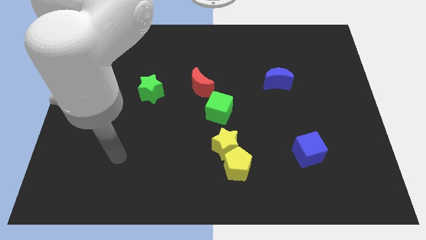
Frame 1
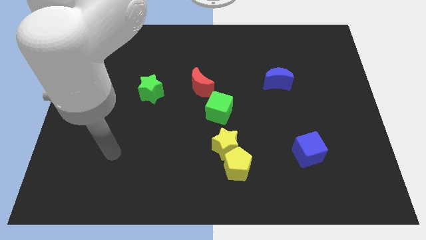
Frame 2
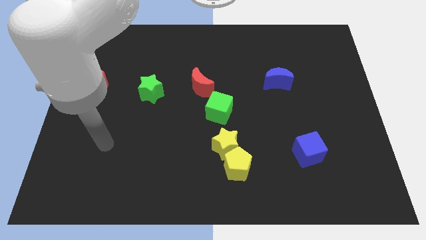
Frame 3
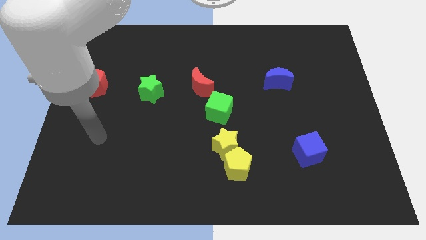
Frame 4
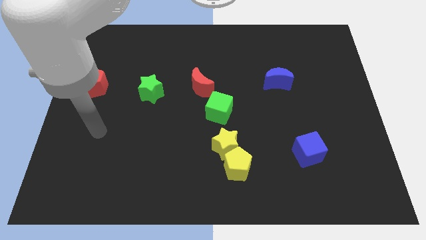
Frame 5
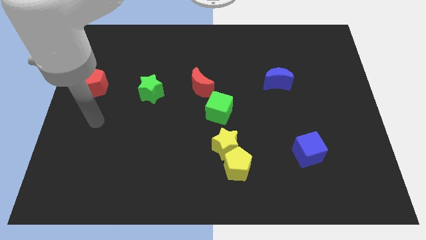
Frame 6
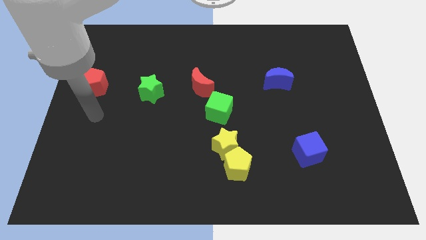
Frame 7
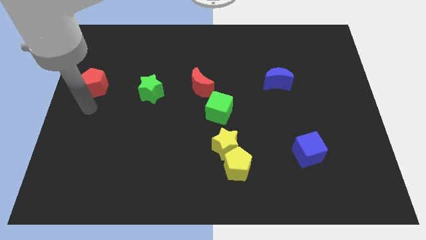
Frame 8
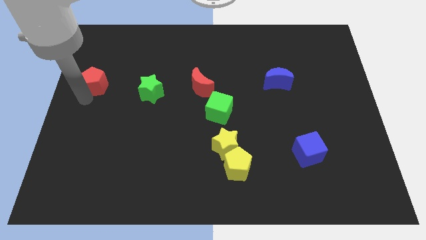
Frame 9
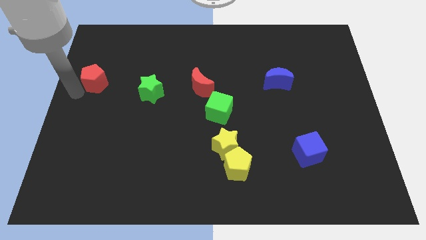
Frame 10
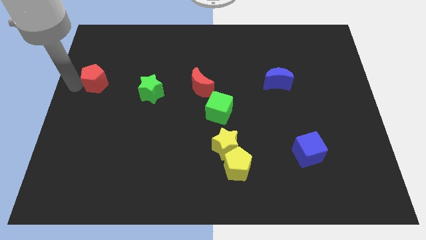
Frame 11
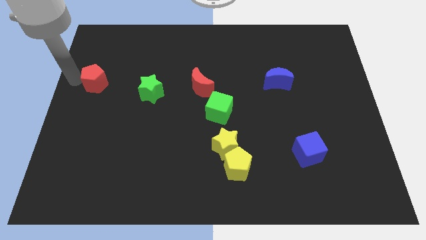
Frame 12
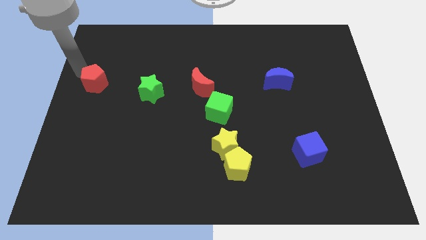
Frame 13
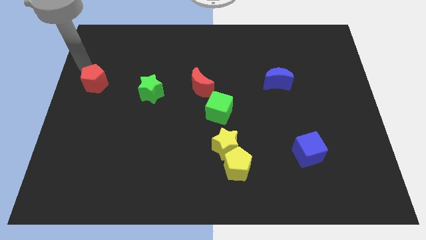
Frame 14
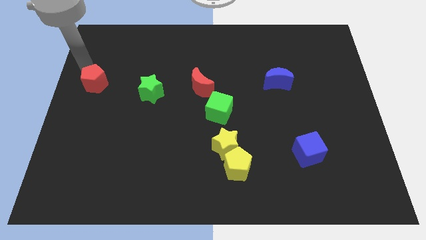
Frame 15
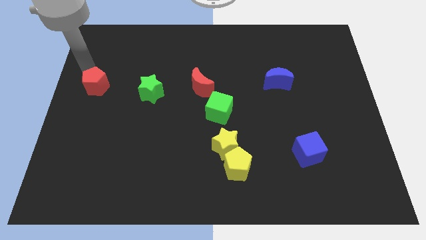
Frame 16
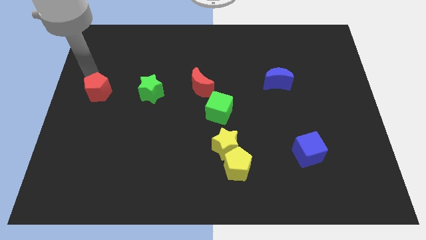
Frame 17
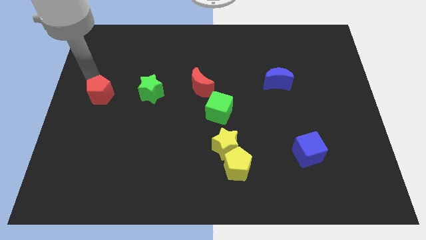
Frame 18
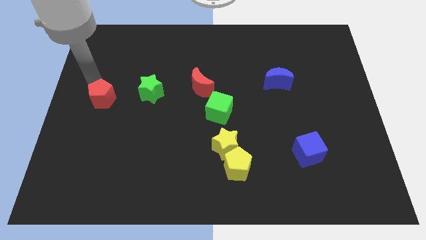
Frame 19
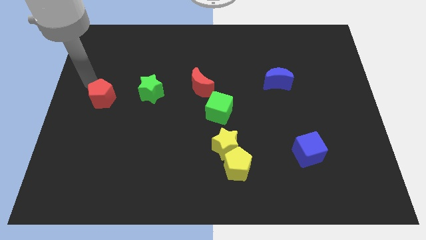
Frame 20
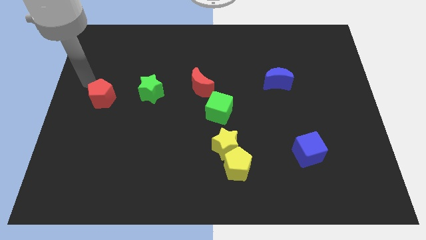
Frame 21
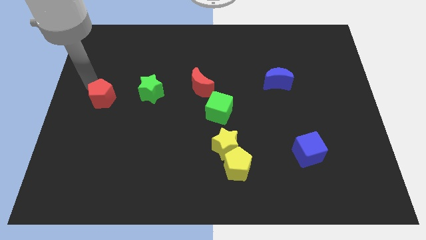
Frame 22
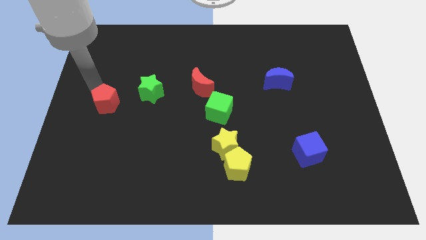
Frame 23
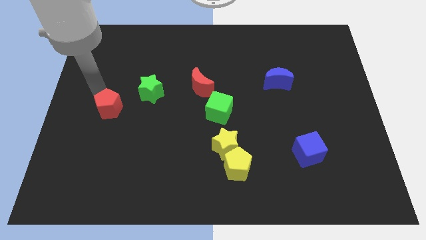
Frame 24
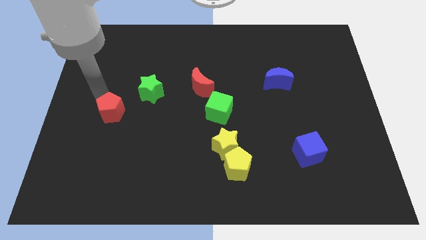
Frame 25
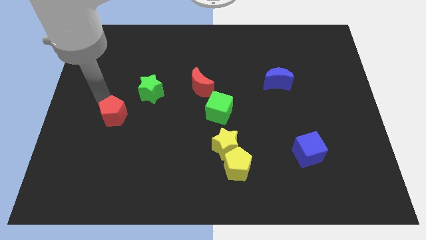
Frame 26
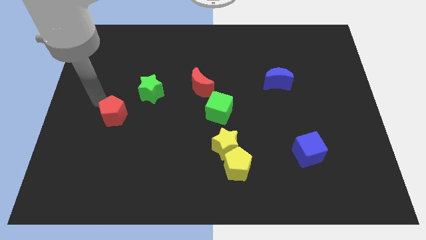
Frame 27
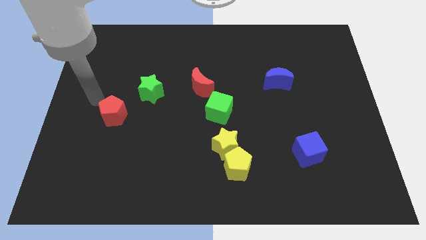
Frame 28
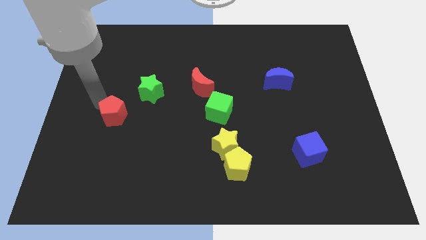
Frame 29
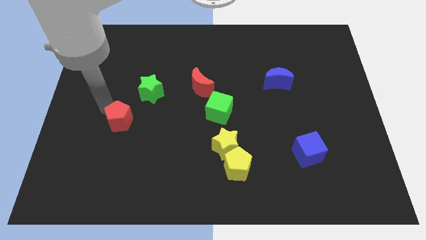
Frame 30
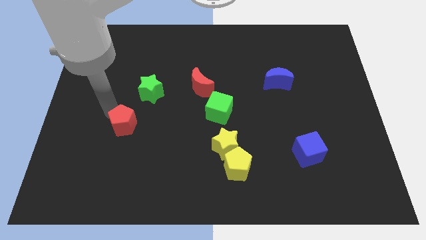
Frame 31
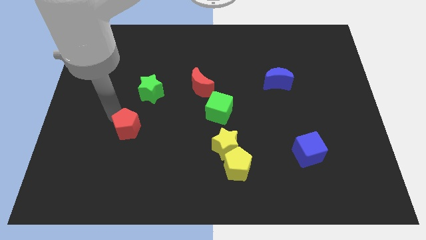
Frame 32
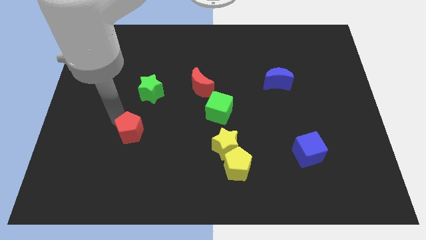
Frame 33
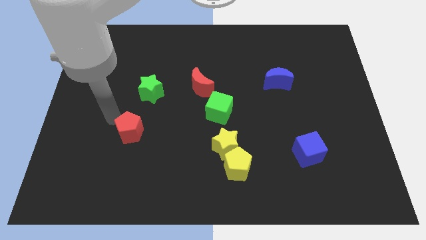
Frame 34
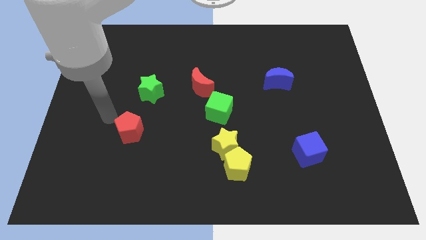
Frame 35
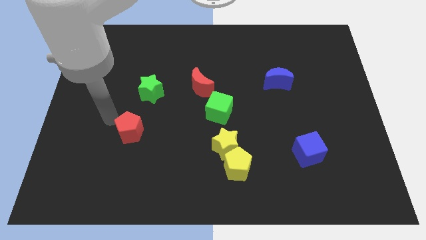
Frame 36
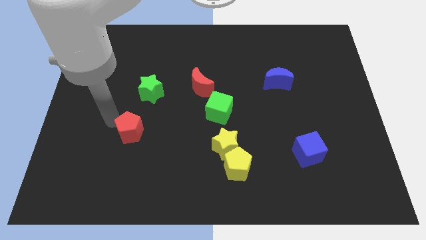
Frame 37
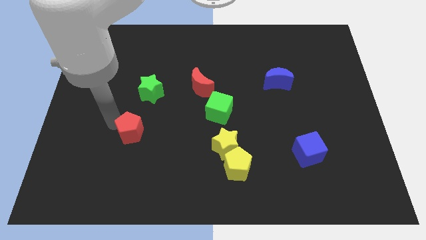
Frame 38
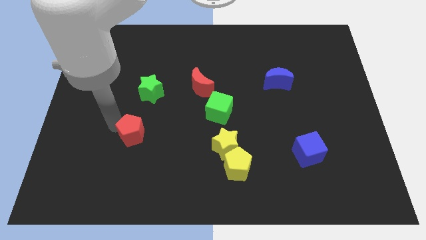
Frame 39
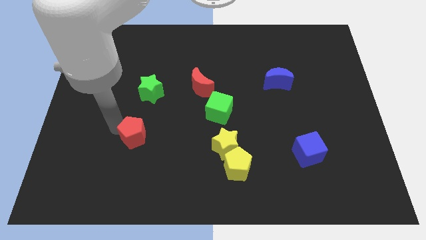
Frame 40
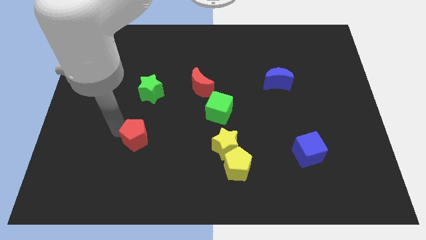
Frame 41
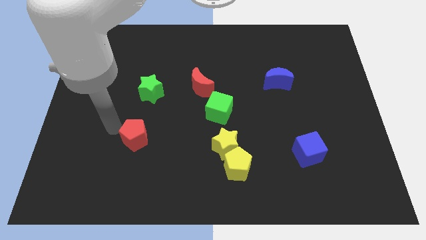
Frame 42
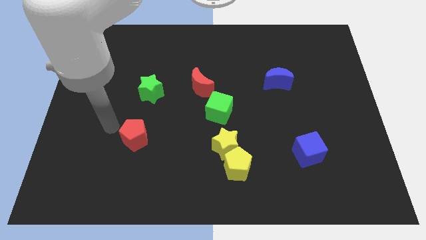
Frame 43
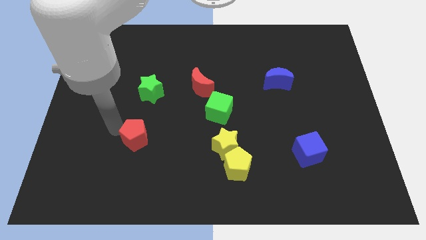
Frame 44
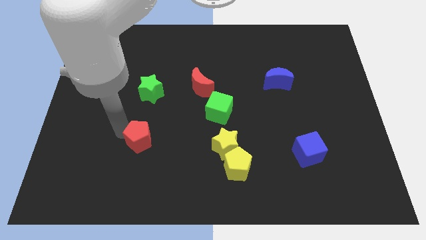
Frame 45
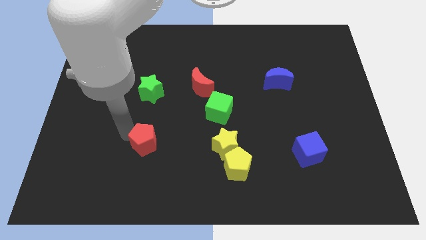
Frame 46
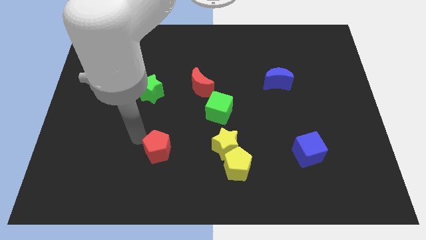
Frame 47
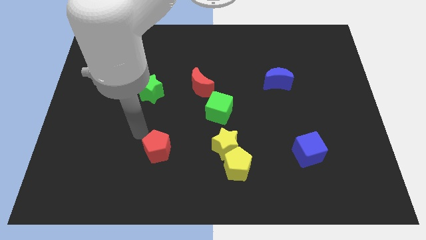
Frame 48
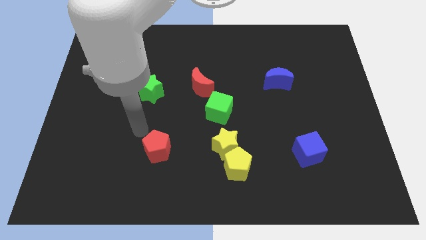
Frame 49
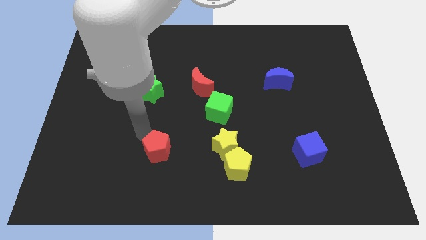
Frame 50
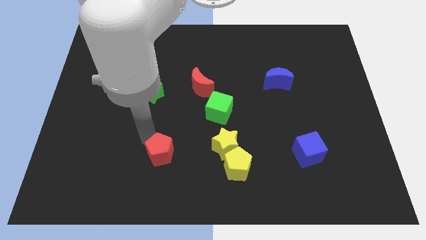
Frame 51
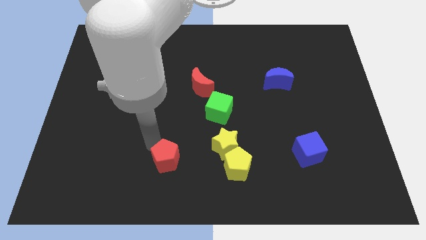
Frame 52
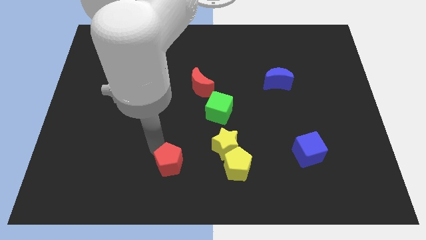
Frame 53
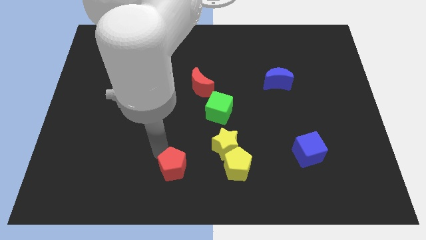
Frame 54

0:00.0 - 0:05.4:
move the red pentagon to the bottom side
